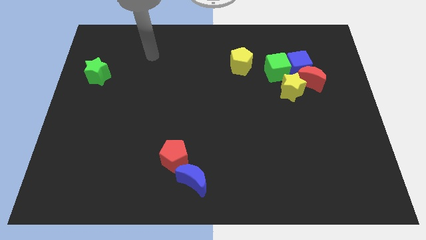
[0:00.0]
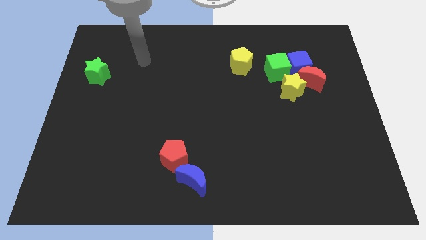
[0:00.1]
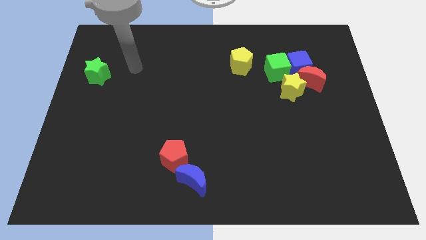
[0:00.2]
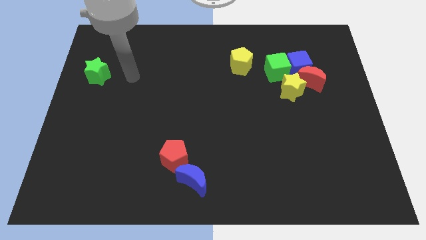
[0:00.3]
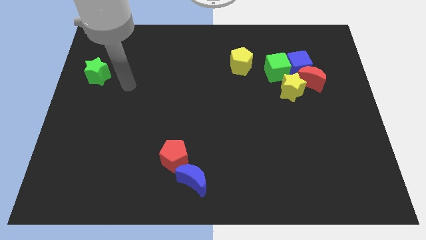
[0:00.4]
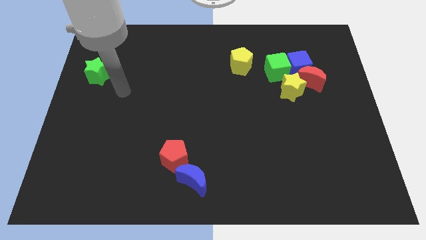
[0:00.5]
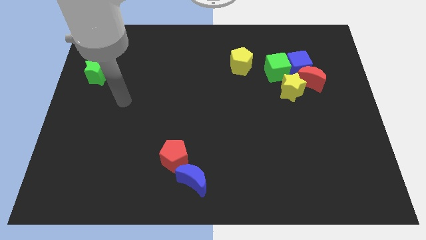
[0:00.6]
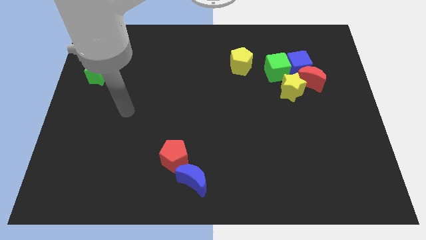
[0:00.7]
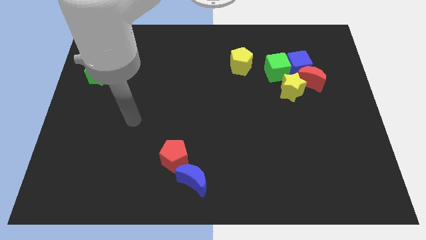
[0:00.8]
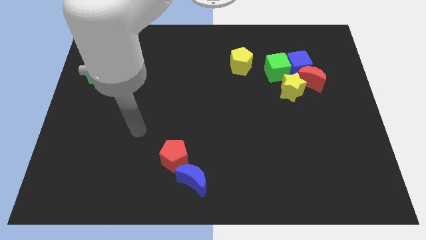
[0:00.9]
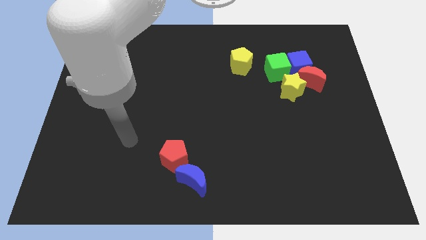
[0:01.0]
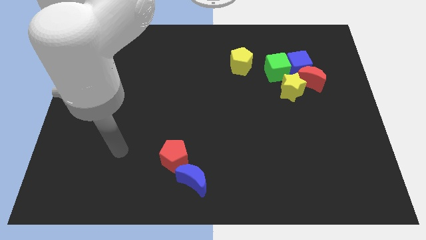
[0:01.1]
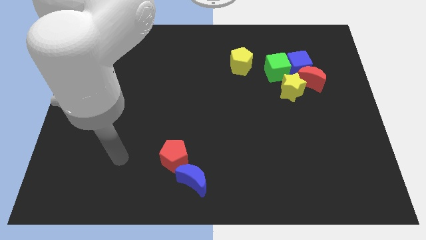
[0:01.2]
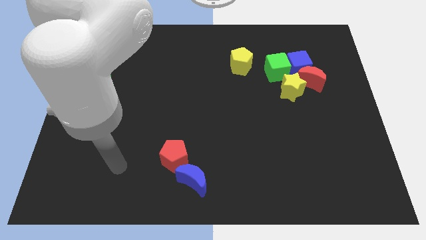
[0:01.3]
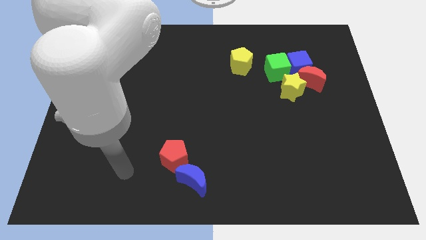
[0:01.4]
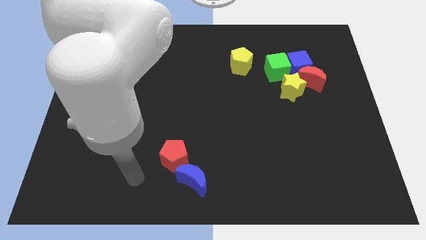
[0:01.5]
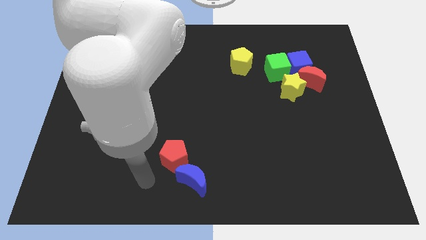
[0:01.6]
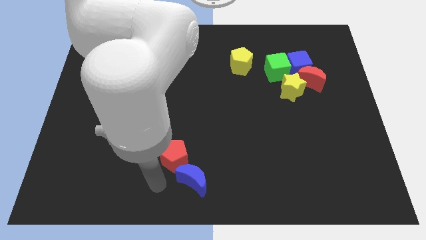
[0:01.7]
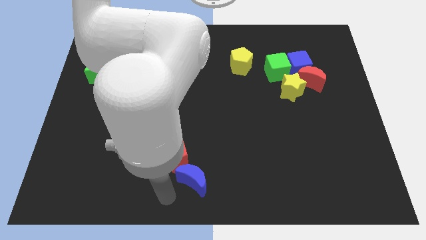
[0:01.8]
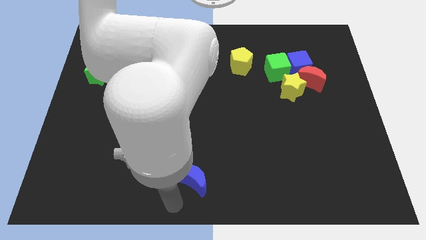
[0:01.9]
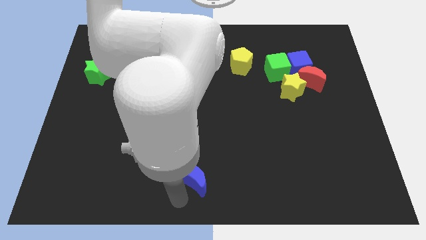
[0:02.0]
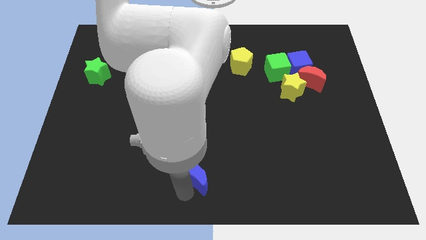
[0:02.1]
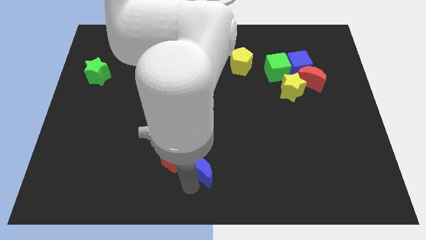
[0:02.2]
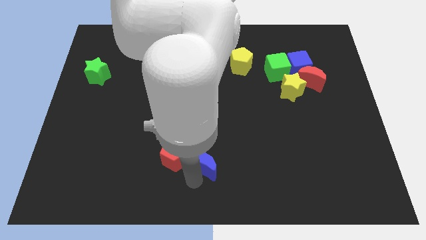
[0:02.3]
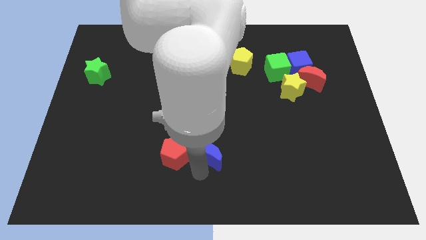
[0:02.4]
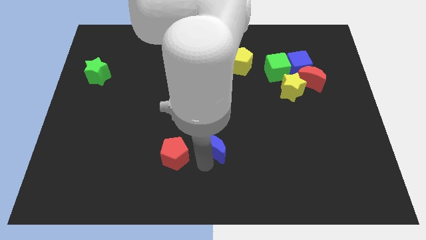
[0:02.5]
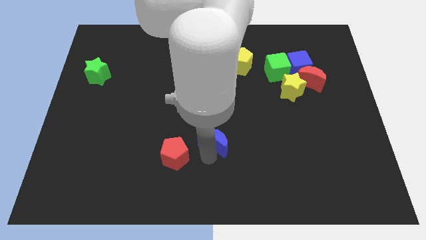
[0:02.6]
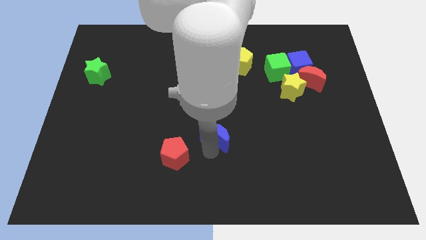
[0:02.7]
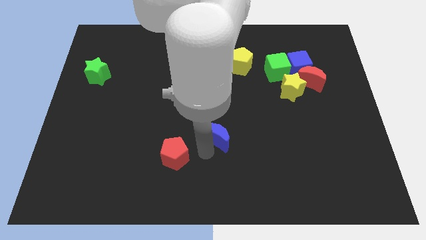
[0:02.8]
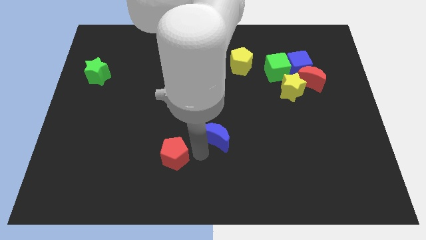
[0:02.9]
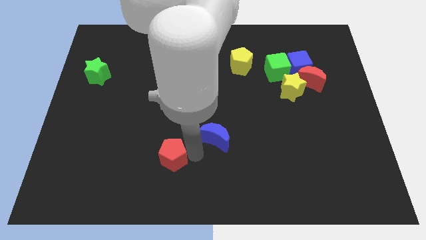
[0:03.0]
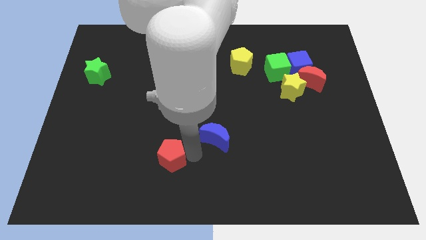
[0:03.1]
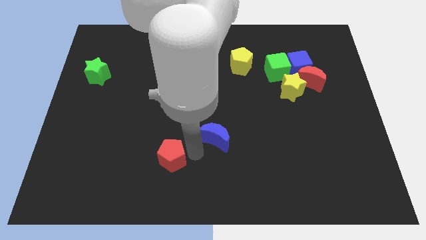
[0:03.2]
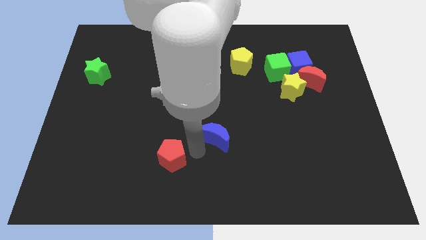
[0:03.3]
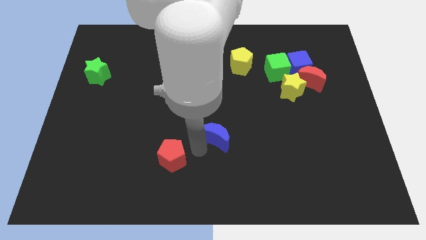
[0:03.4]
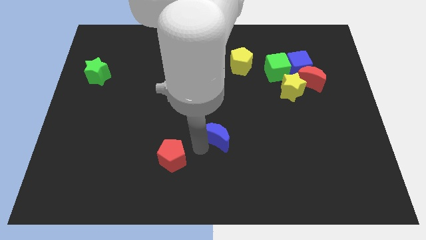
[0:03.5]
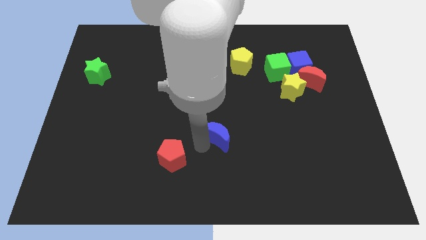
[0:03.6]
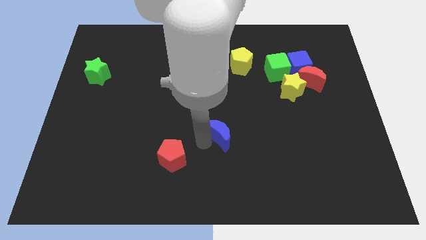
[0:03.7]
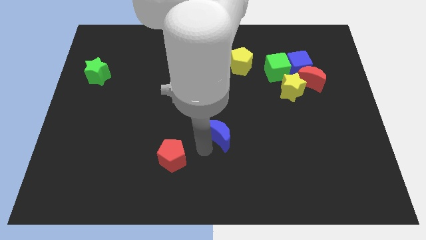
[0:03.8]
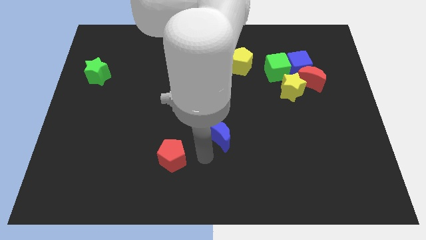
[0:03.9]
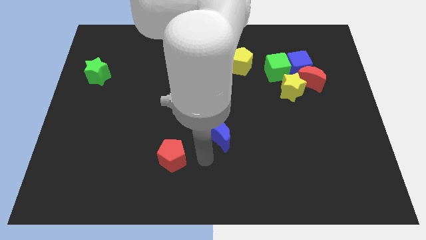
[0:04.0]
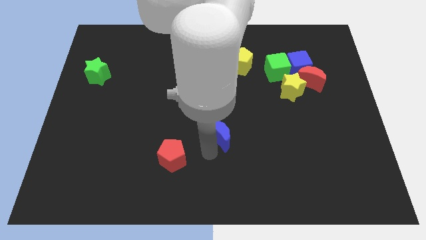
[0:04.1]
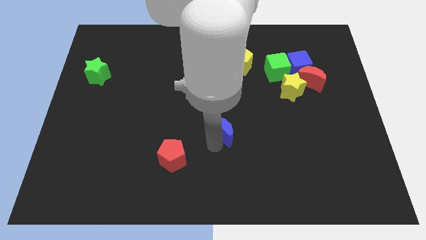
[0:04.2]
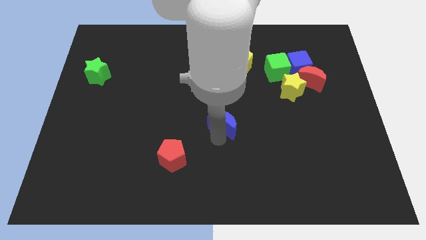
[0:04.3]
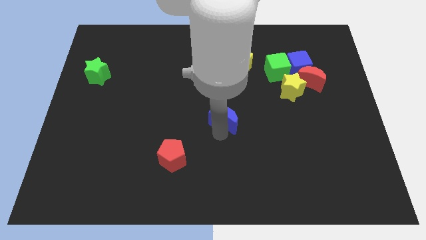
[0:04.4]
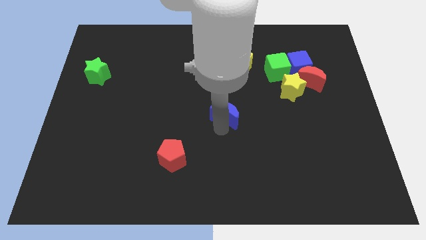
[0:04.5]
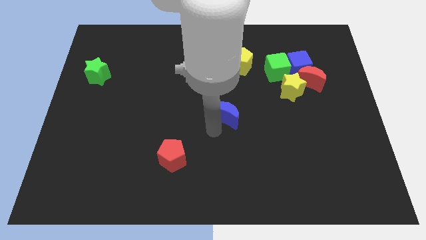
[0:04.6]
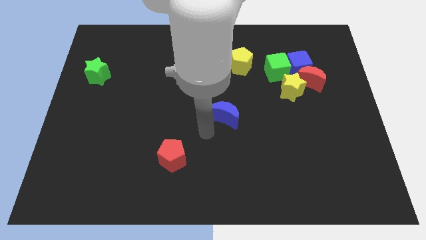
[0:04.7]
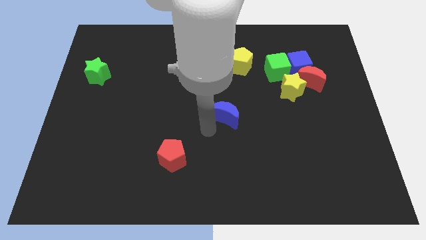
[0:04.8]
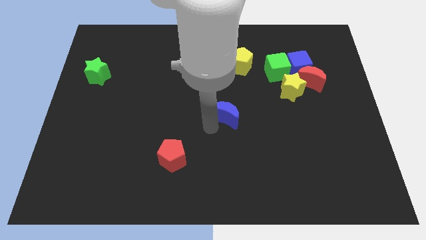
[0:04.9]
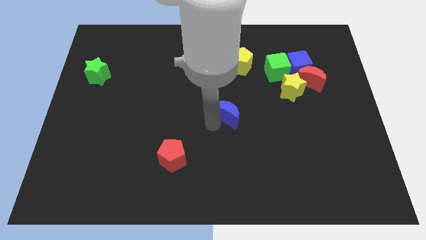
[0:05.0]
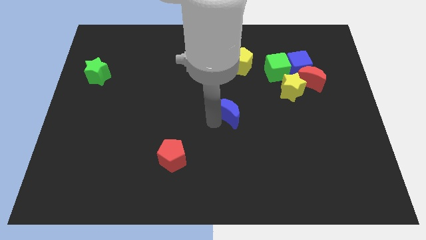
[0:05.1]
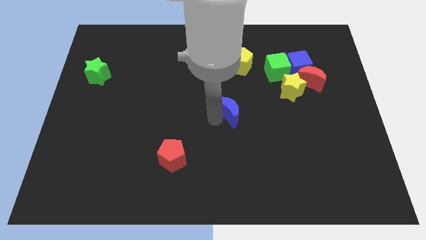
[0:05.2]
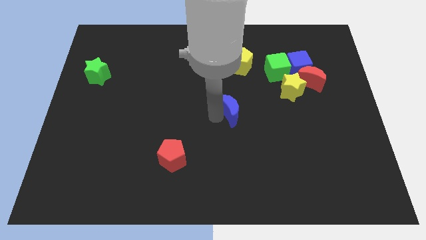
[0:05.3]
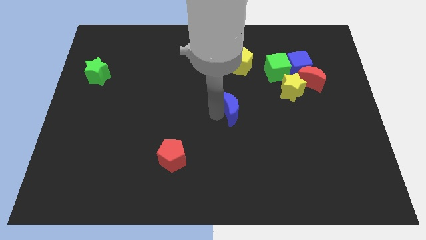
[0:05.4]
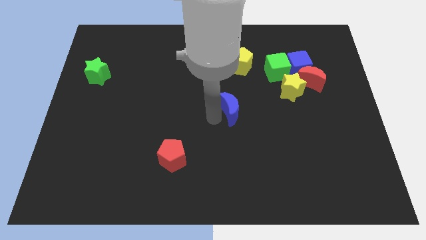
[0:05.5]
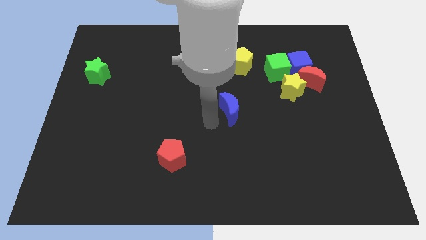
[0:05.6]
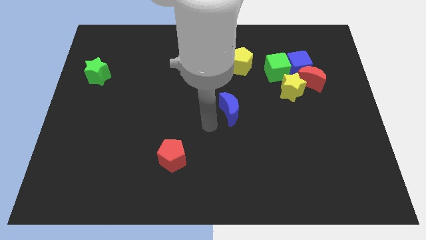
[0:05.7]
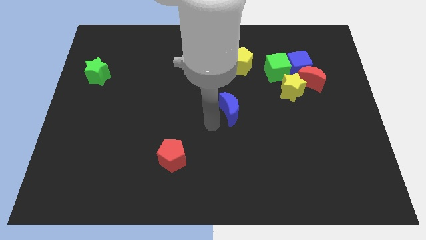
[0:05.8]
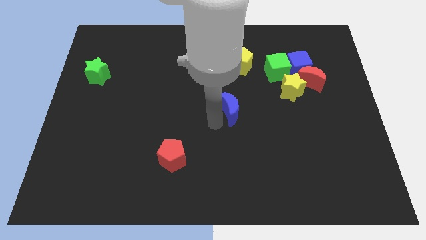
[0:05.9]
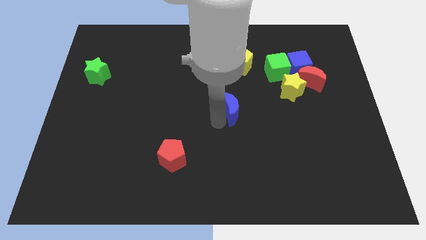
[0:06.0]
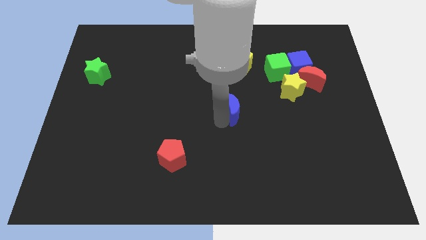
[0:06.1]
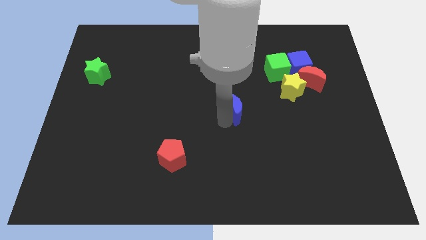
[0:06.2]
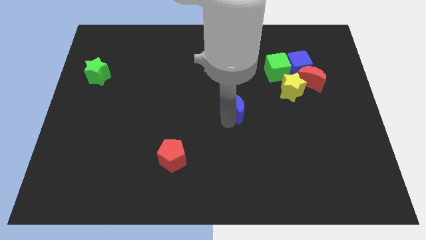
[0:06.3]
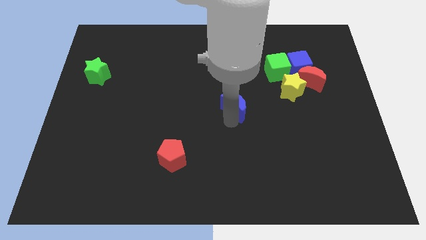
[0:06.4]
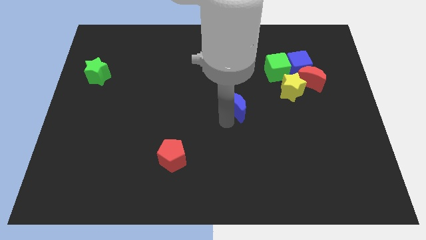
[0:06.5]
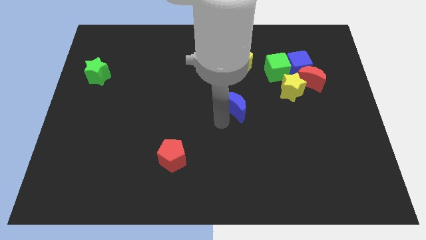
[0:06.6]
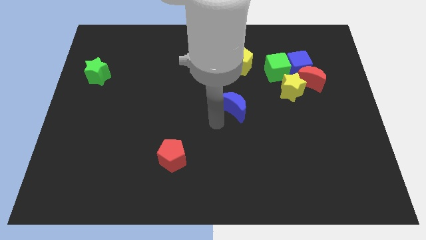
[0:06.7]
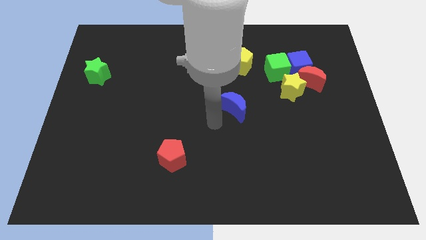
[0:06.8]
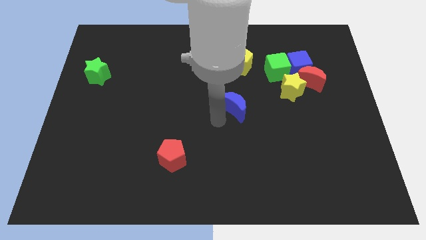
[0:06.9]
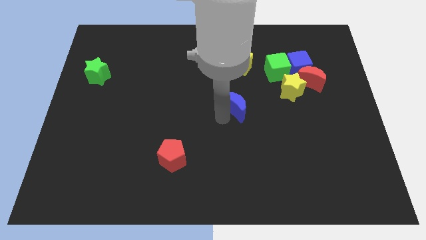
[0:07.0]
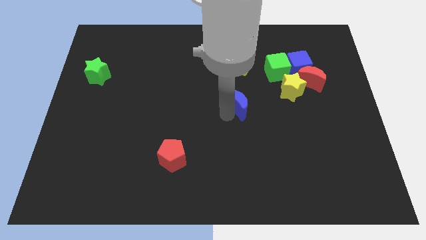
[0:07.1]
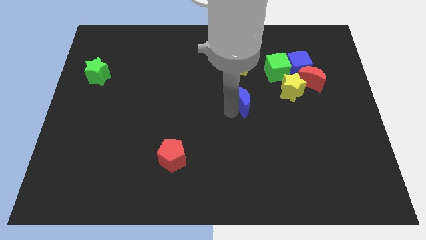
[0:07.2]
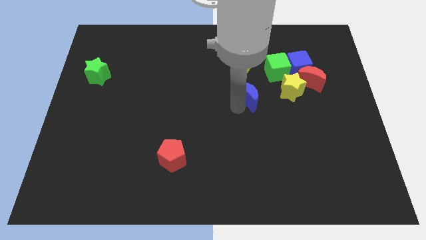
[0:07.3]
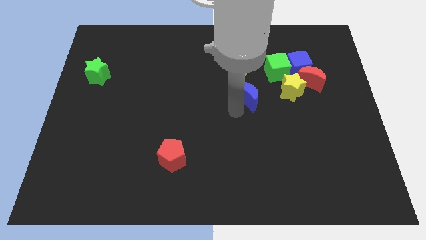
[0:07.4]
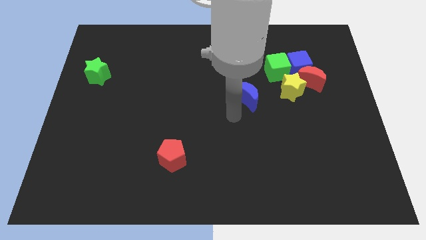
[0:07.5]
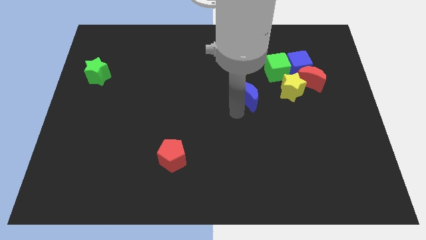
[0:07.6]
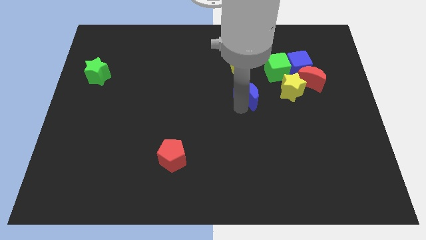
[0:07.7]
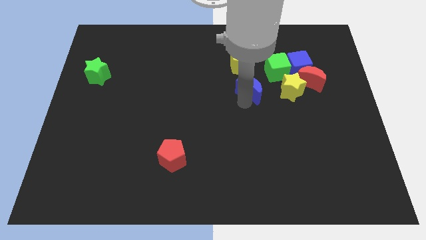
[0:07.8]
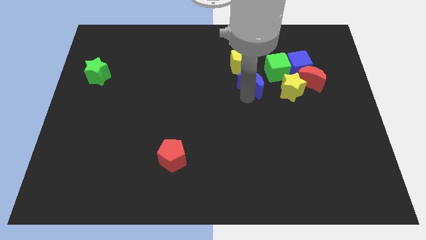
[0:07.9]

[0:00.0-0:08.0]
put the blue moon diagonally down and to the right of the yellow pentagon

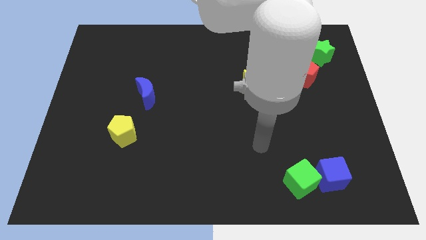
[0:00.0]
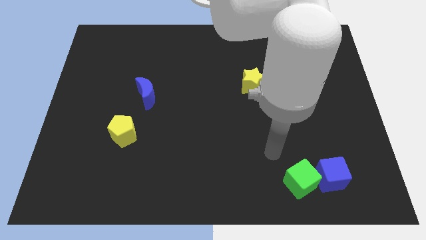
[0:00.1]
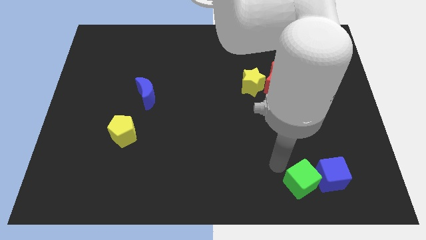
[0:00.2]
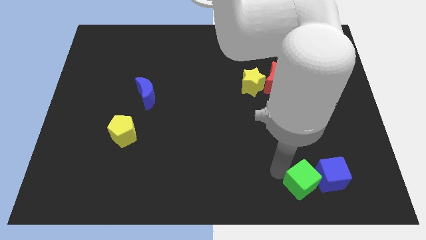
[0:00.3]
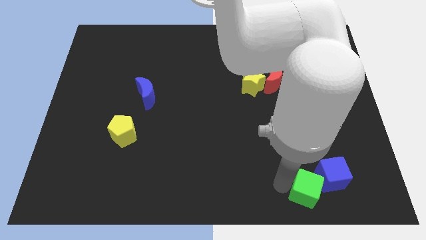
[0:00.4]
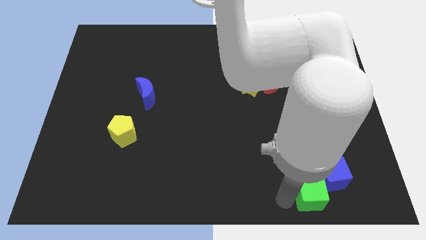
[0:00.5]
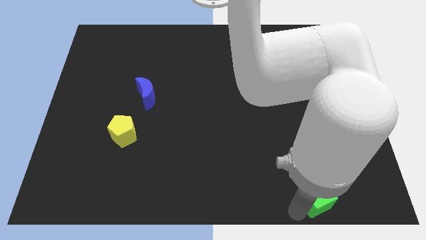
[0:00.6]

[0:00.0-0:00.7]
slide the blue cube to the top of the green cube
